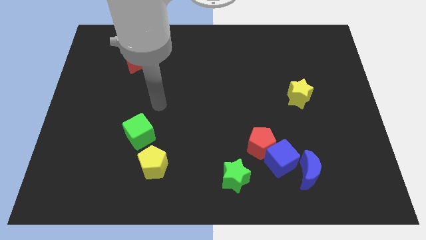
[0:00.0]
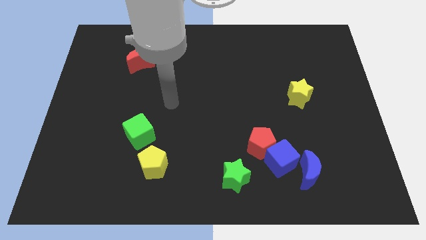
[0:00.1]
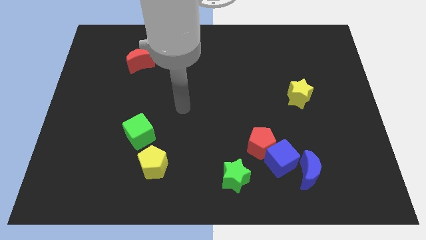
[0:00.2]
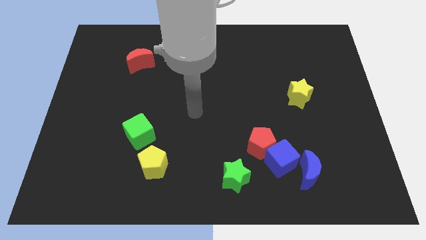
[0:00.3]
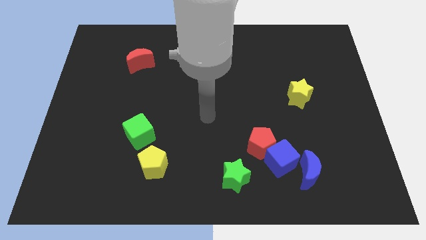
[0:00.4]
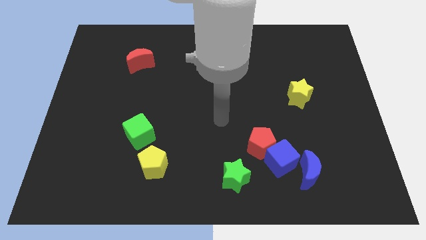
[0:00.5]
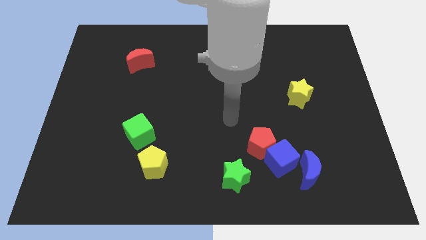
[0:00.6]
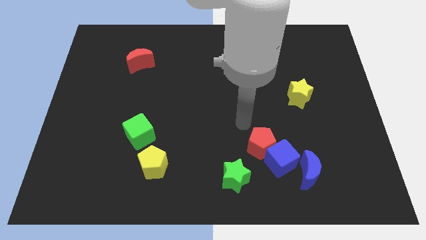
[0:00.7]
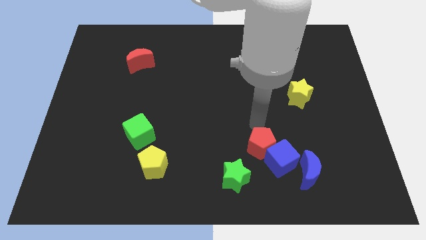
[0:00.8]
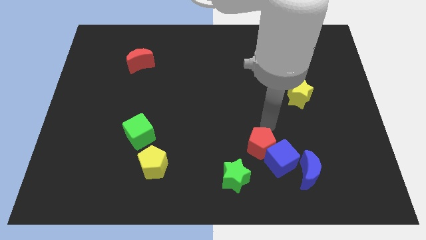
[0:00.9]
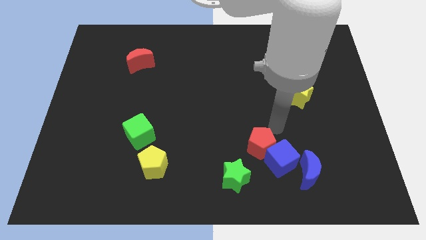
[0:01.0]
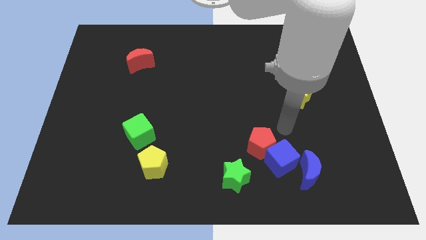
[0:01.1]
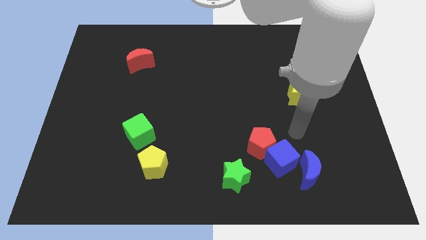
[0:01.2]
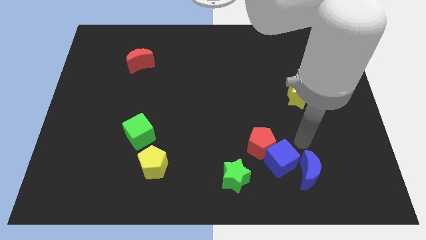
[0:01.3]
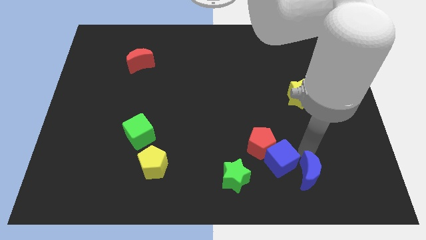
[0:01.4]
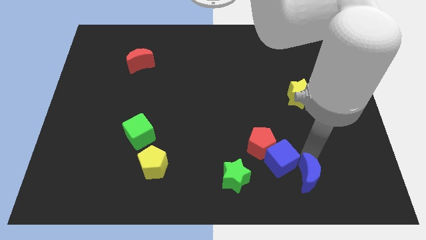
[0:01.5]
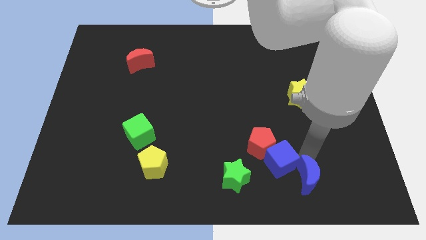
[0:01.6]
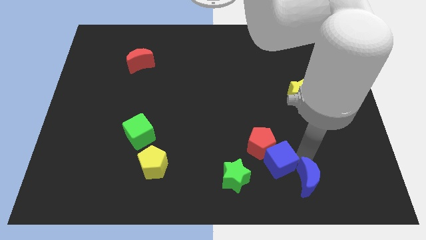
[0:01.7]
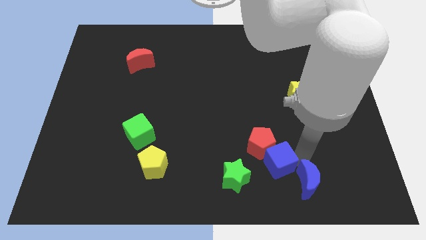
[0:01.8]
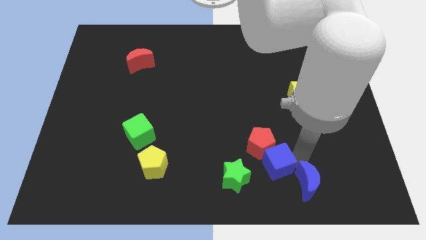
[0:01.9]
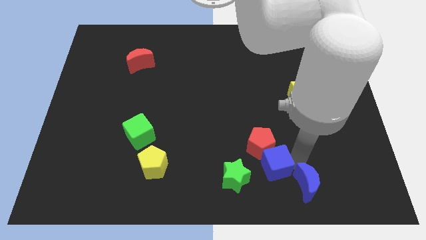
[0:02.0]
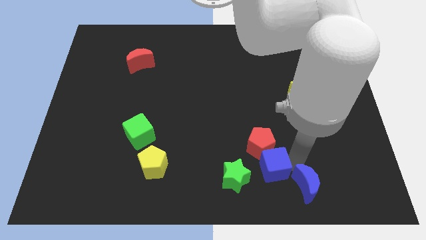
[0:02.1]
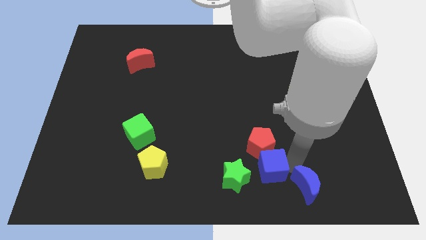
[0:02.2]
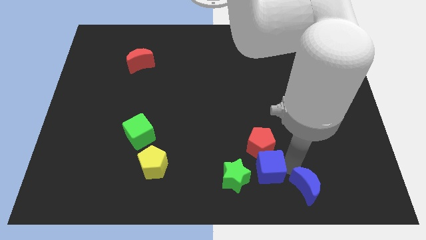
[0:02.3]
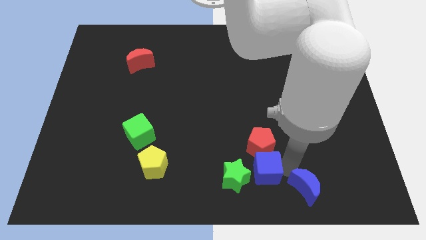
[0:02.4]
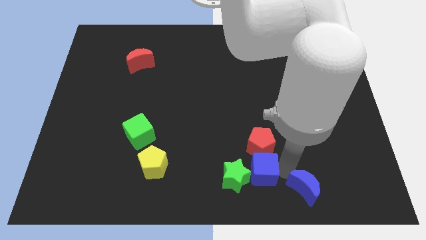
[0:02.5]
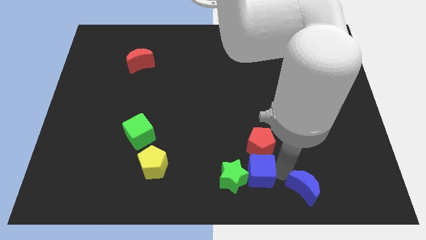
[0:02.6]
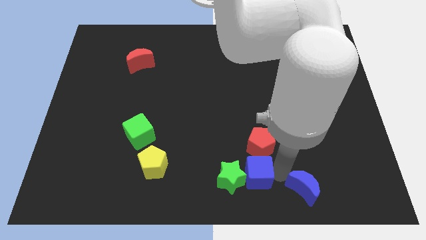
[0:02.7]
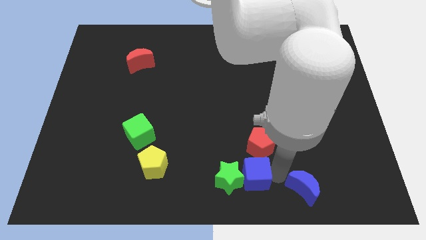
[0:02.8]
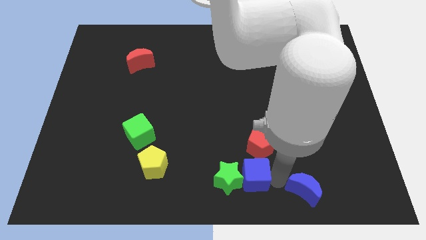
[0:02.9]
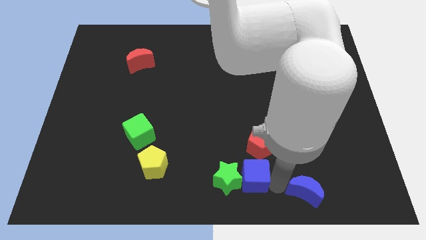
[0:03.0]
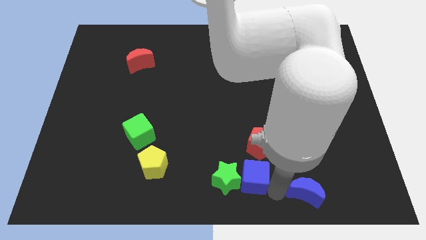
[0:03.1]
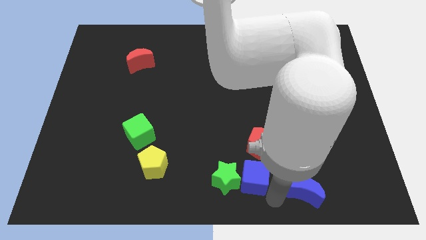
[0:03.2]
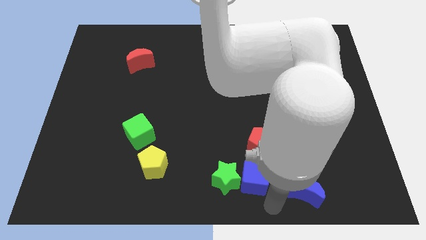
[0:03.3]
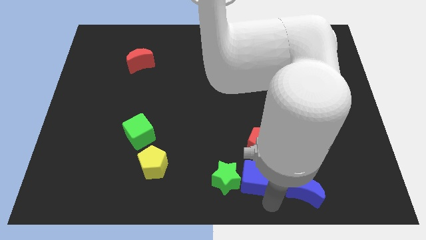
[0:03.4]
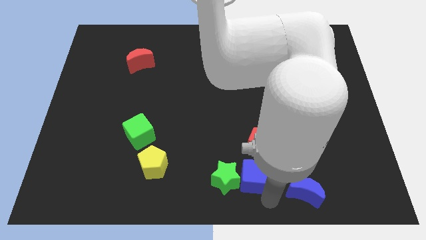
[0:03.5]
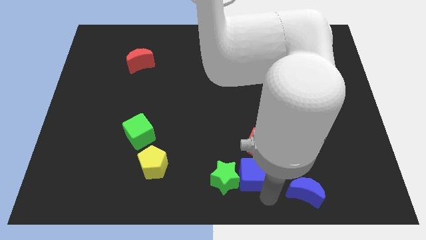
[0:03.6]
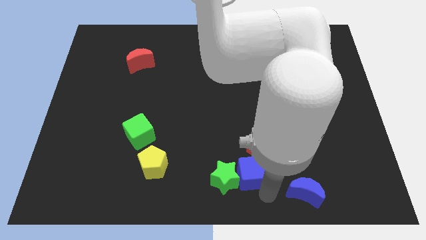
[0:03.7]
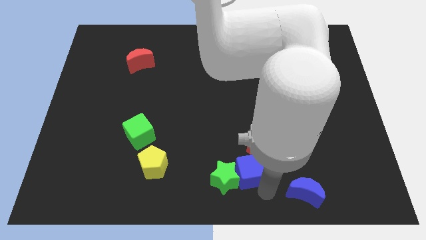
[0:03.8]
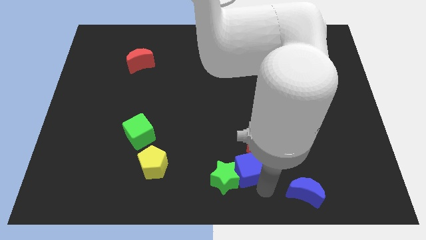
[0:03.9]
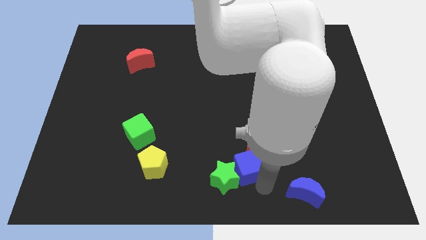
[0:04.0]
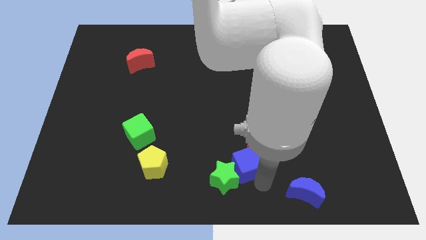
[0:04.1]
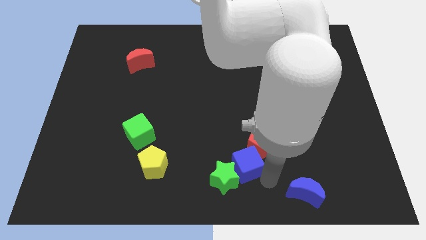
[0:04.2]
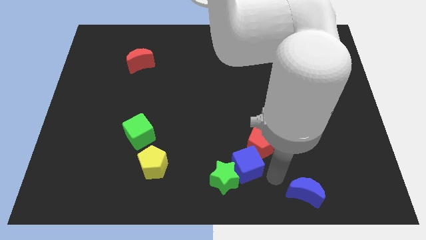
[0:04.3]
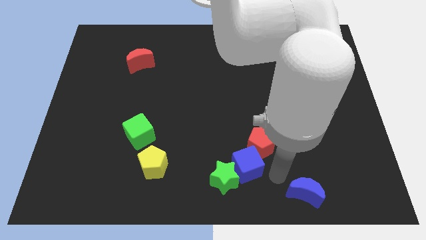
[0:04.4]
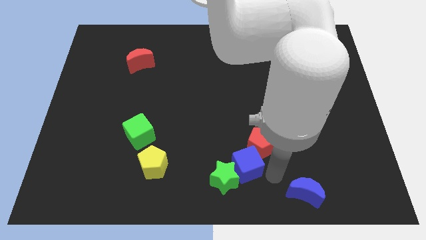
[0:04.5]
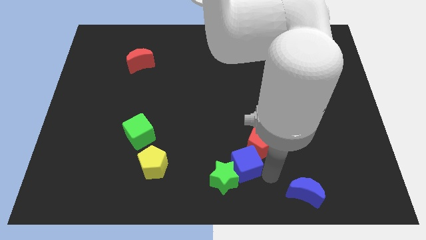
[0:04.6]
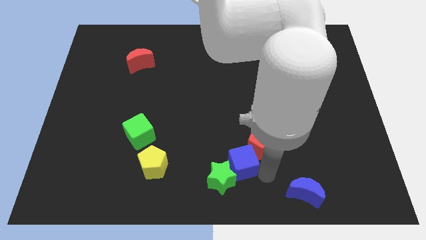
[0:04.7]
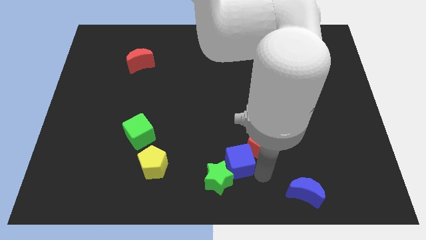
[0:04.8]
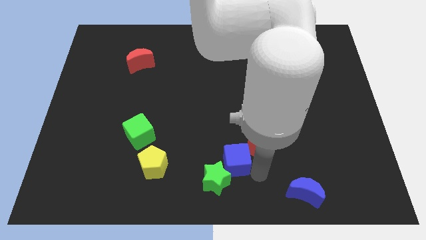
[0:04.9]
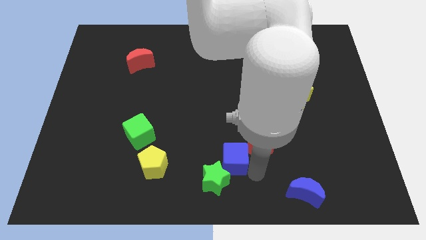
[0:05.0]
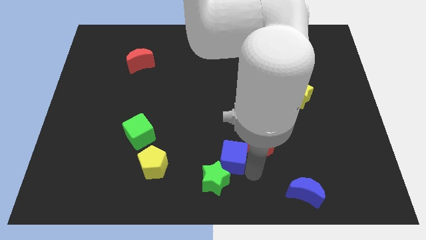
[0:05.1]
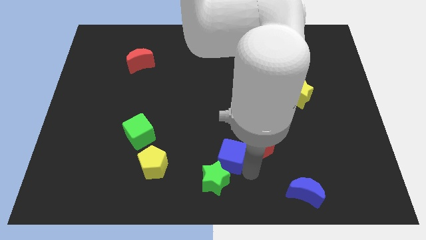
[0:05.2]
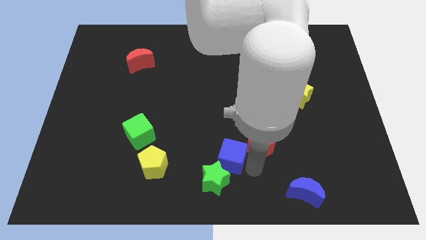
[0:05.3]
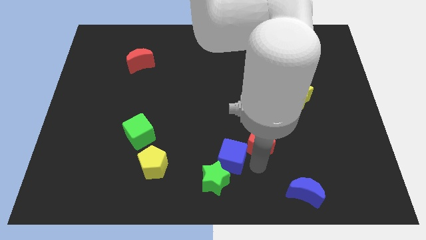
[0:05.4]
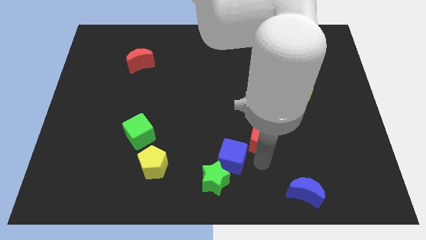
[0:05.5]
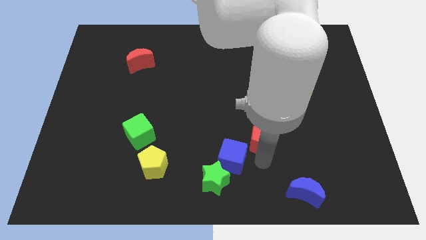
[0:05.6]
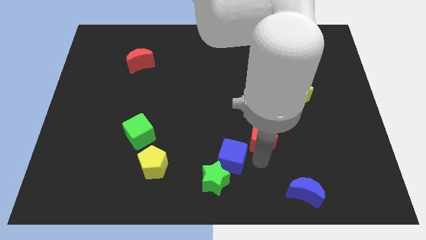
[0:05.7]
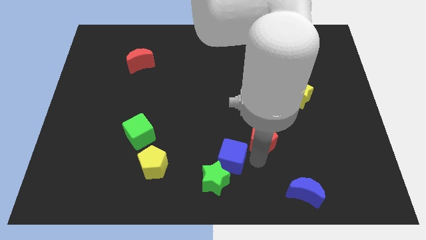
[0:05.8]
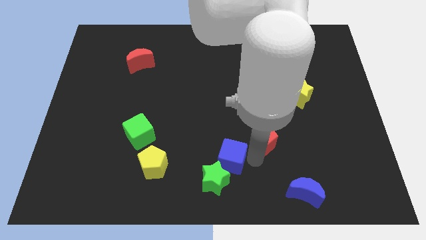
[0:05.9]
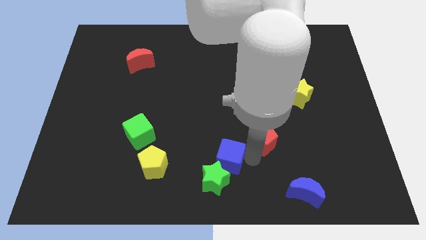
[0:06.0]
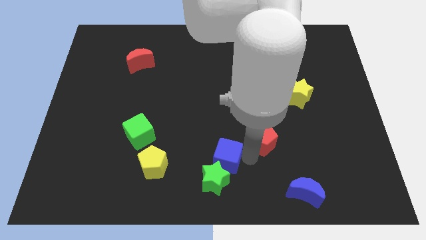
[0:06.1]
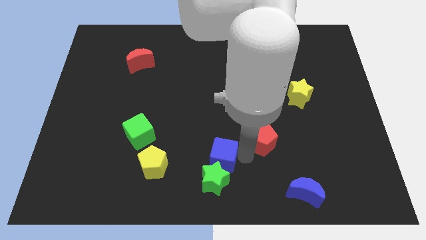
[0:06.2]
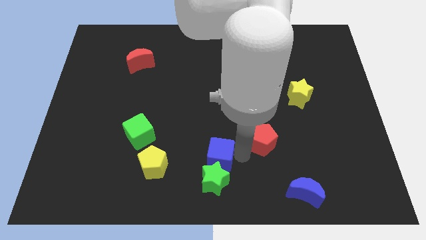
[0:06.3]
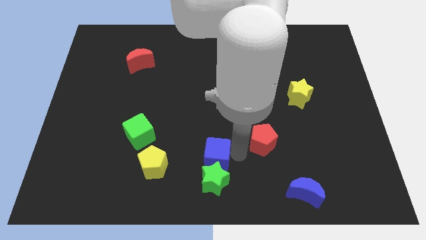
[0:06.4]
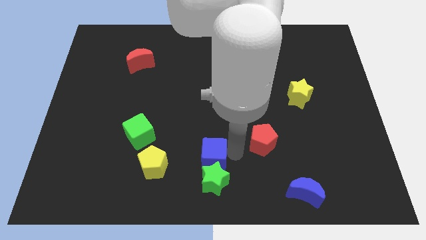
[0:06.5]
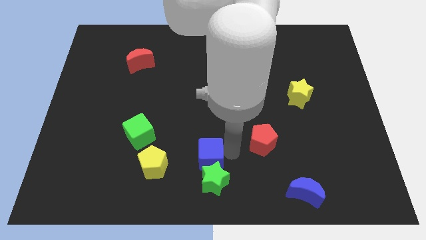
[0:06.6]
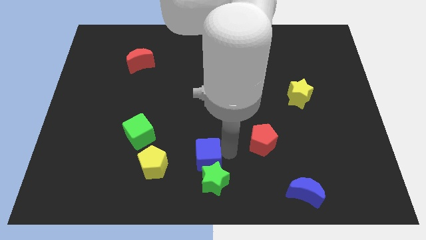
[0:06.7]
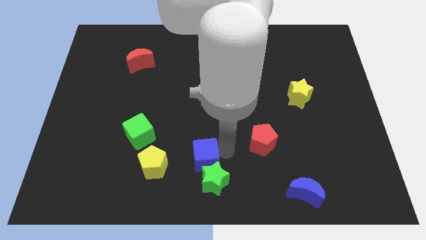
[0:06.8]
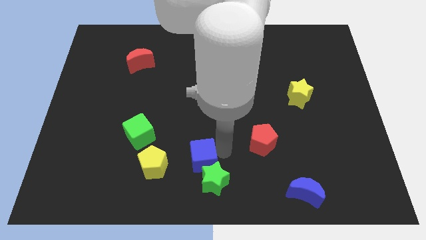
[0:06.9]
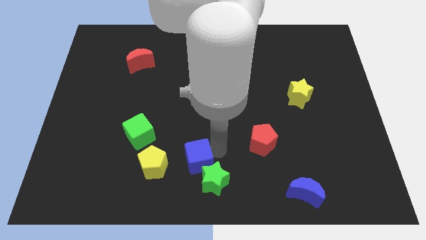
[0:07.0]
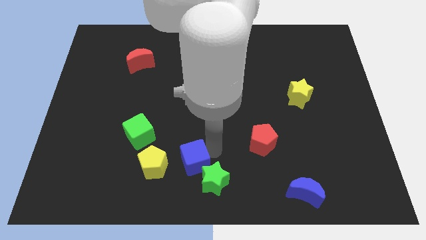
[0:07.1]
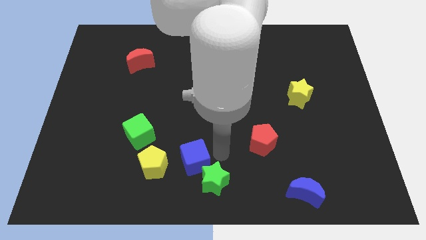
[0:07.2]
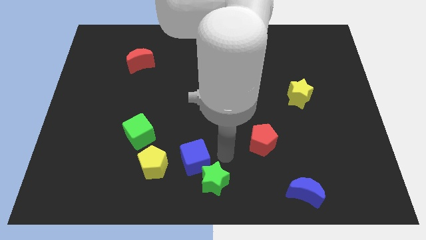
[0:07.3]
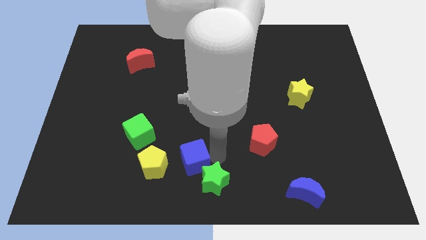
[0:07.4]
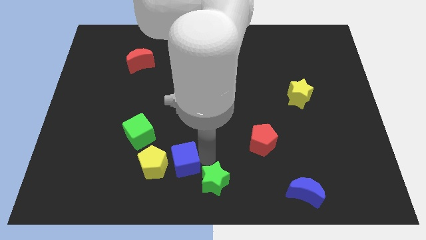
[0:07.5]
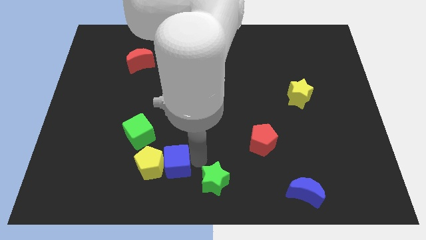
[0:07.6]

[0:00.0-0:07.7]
move the blue cube close to the yellow pentagon
